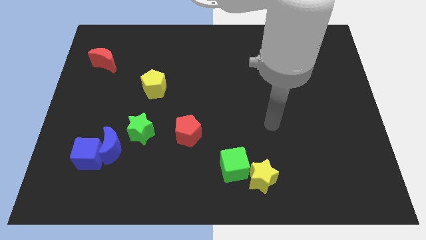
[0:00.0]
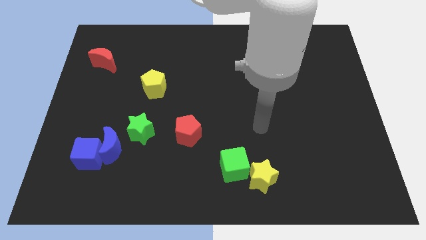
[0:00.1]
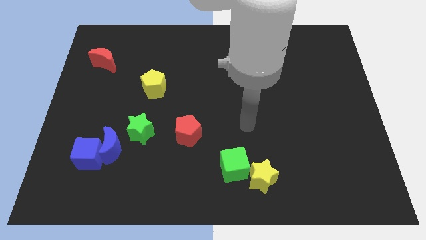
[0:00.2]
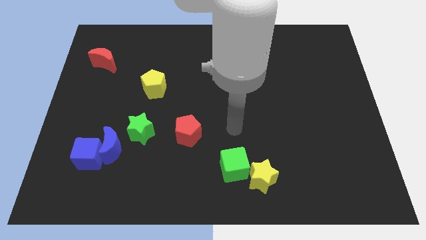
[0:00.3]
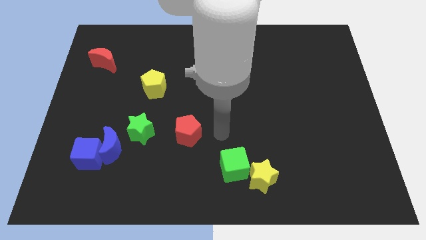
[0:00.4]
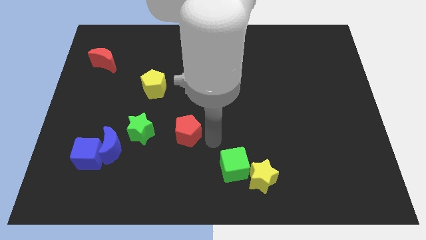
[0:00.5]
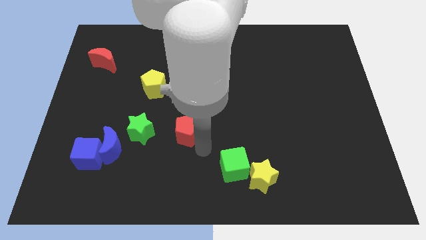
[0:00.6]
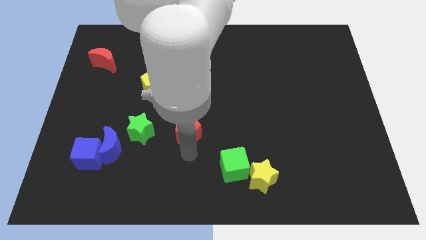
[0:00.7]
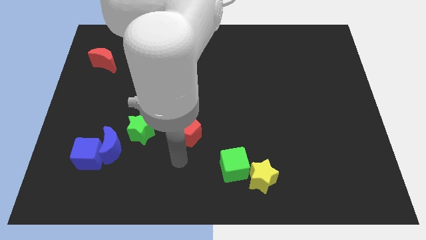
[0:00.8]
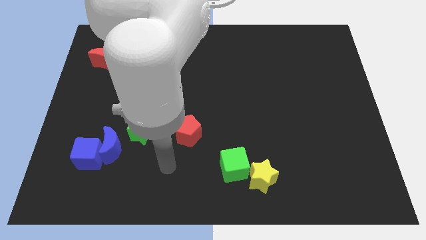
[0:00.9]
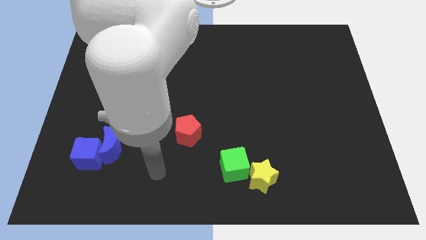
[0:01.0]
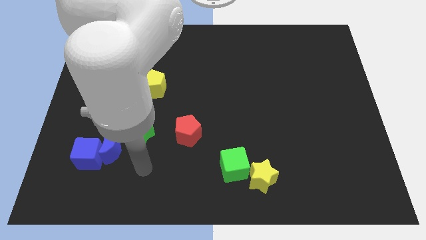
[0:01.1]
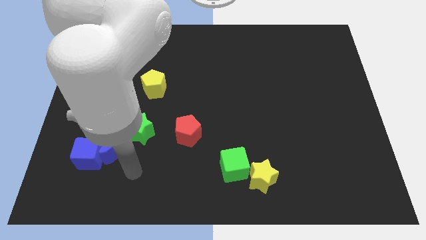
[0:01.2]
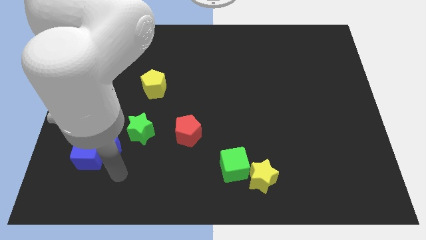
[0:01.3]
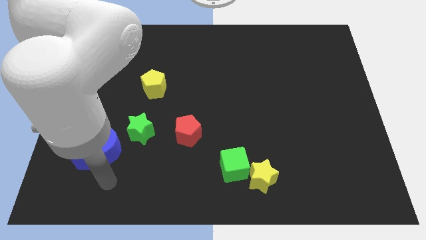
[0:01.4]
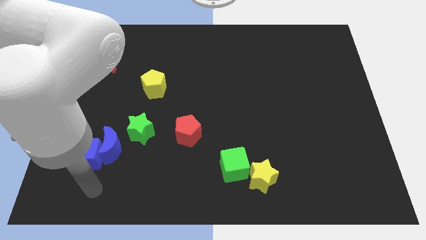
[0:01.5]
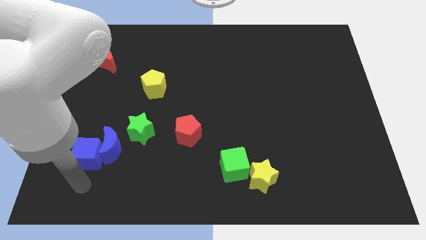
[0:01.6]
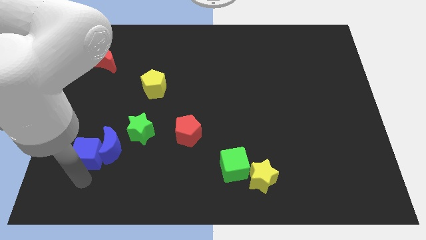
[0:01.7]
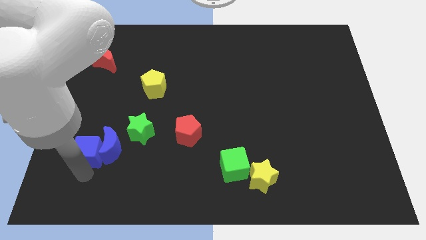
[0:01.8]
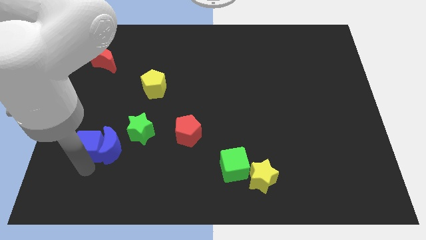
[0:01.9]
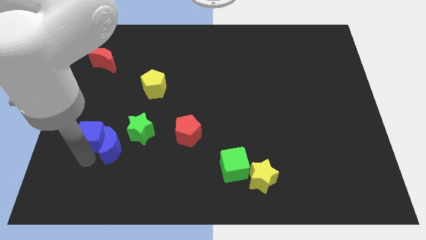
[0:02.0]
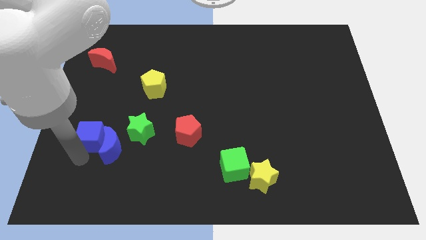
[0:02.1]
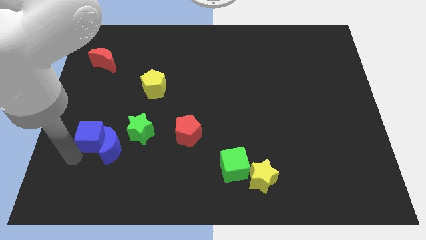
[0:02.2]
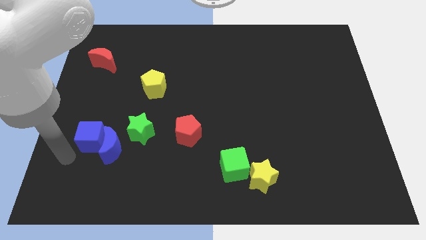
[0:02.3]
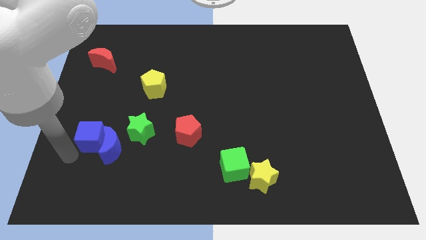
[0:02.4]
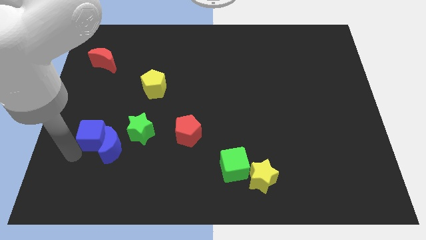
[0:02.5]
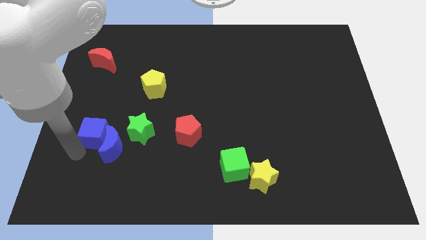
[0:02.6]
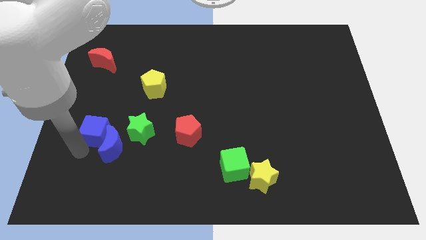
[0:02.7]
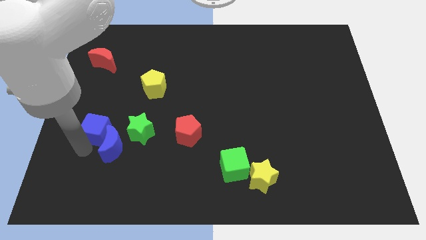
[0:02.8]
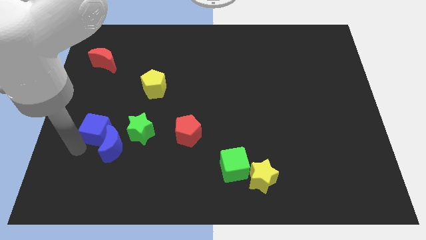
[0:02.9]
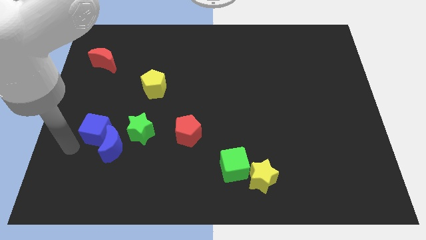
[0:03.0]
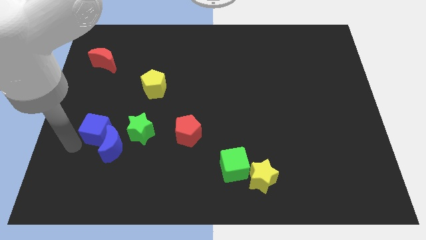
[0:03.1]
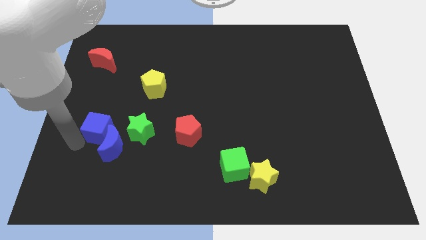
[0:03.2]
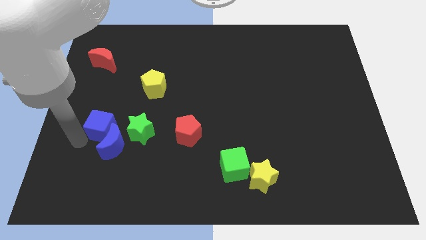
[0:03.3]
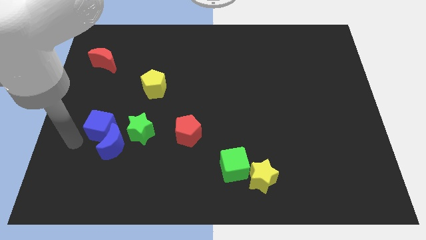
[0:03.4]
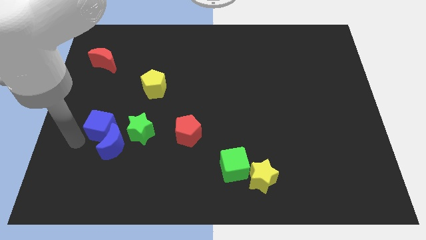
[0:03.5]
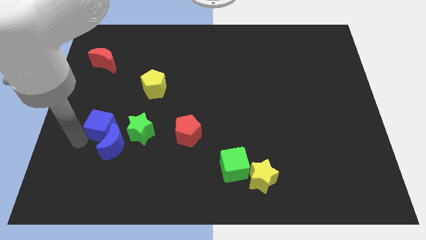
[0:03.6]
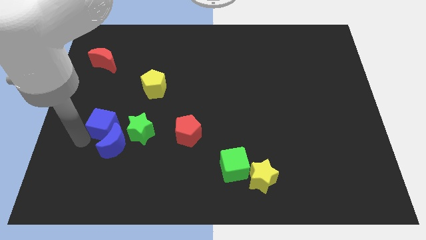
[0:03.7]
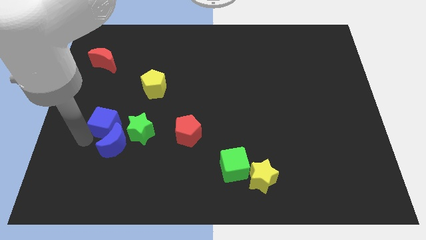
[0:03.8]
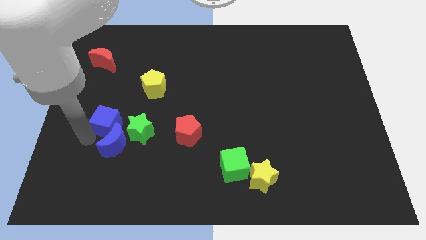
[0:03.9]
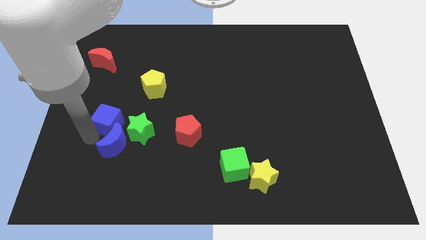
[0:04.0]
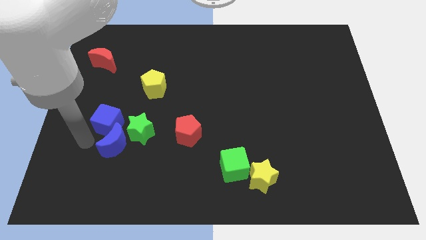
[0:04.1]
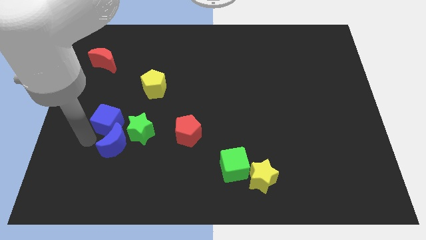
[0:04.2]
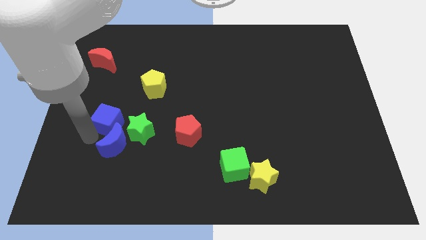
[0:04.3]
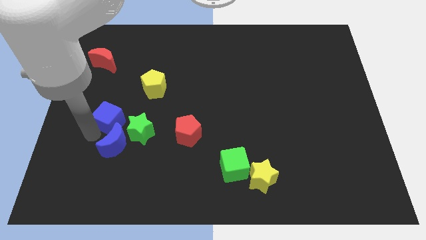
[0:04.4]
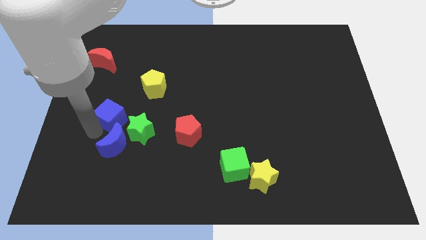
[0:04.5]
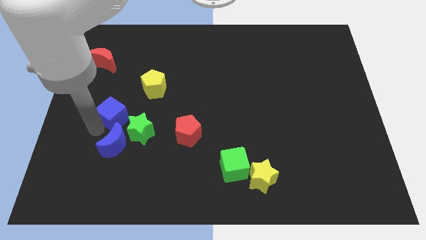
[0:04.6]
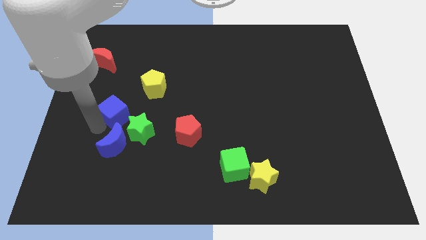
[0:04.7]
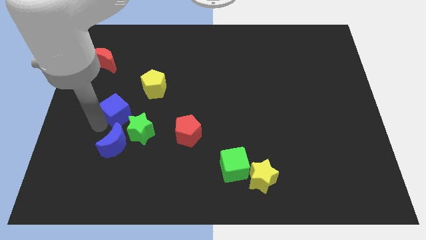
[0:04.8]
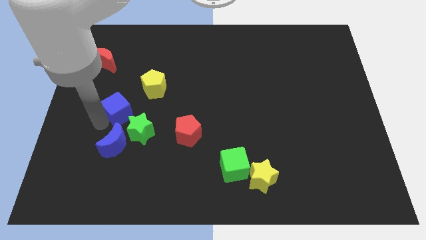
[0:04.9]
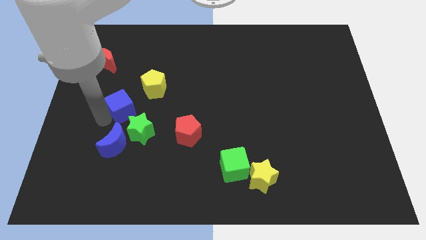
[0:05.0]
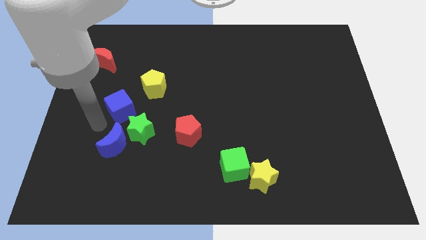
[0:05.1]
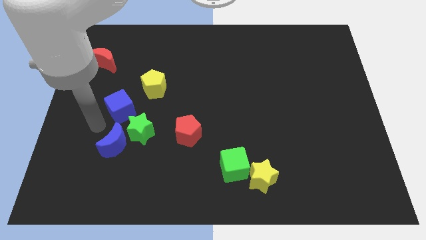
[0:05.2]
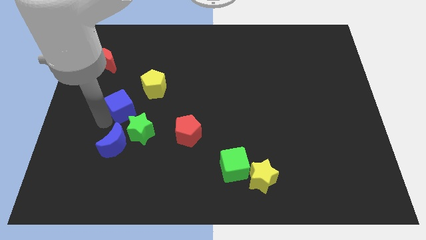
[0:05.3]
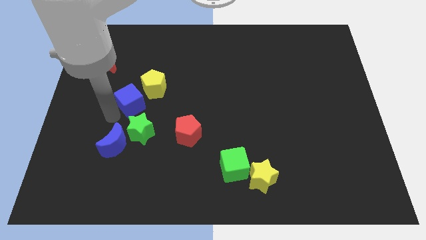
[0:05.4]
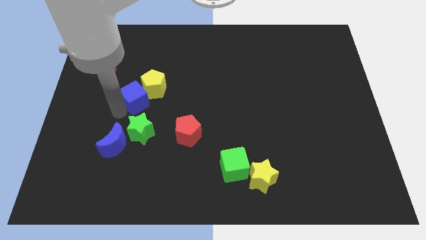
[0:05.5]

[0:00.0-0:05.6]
move the blue cube towards the yellow pentagon

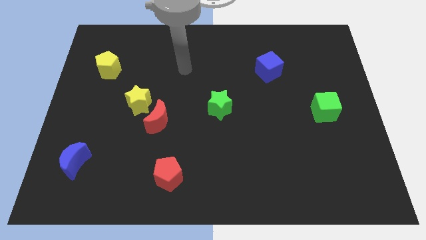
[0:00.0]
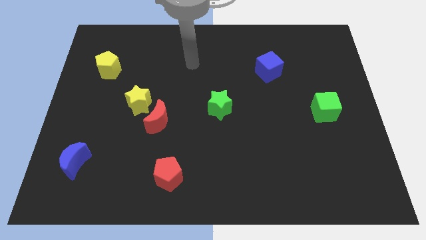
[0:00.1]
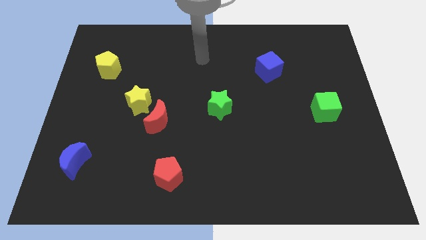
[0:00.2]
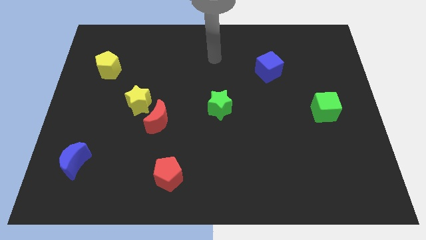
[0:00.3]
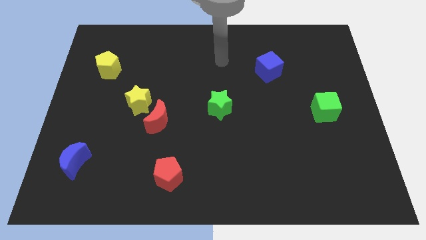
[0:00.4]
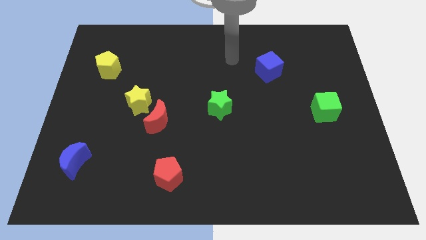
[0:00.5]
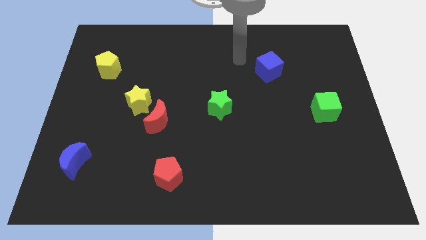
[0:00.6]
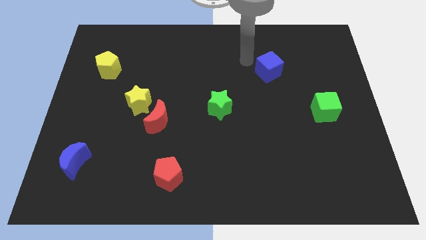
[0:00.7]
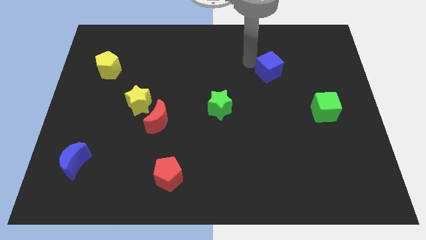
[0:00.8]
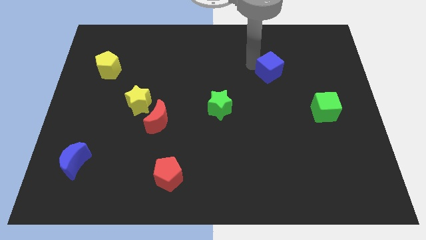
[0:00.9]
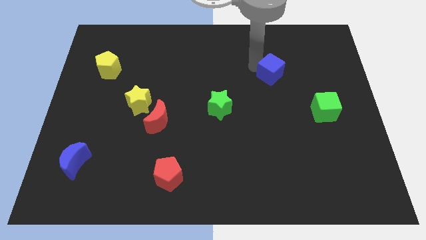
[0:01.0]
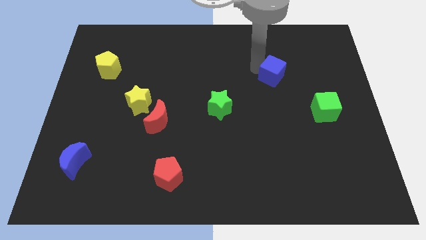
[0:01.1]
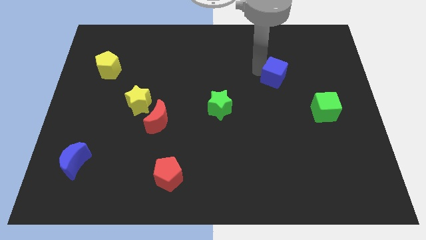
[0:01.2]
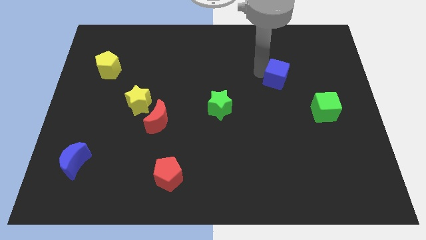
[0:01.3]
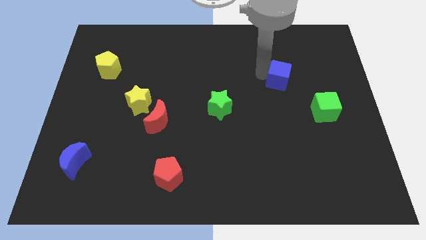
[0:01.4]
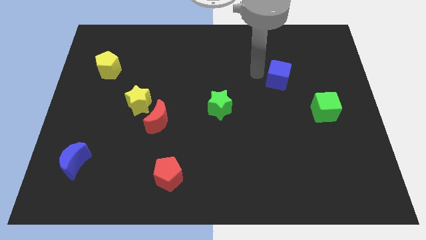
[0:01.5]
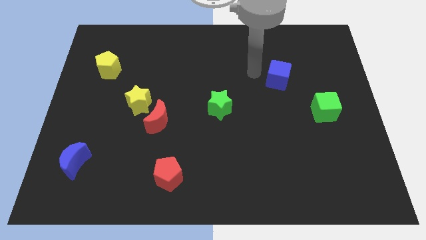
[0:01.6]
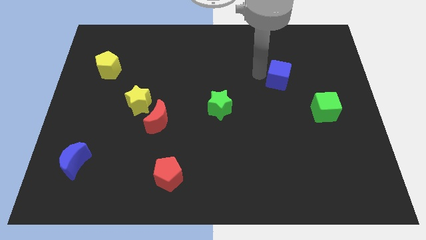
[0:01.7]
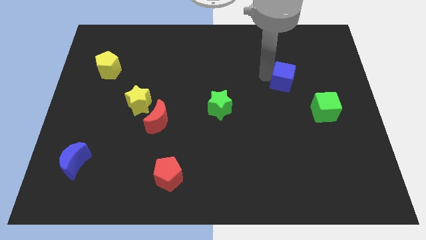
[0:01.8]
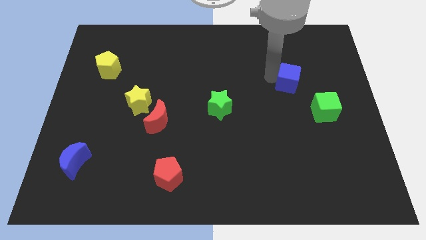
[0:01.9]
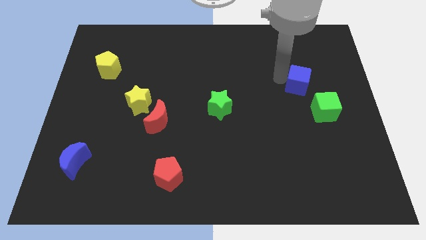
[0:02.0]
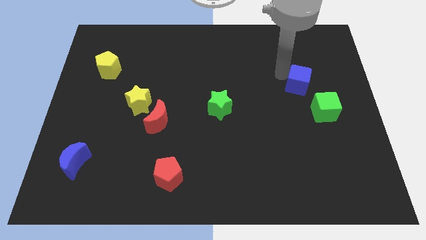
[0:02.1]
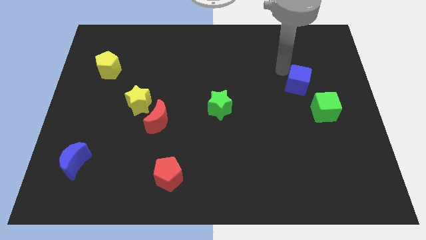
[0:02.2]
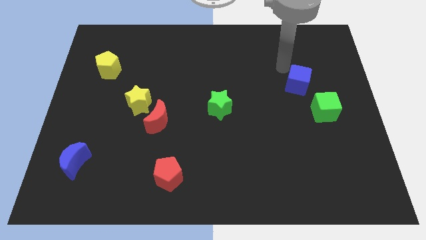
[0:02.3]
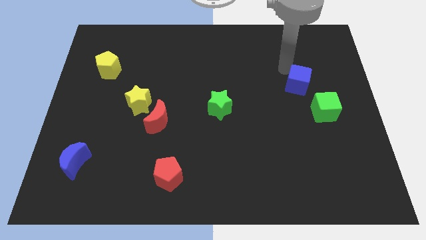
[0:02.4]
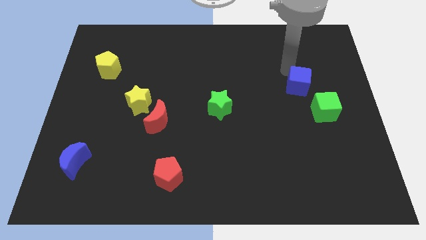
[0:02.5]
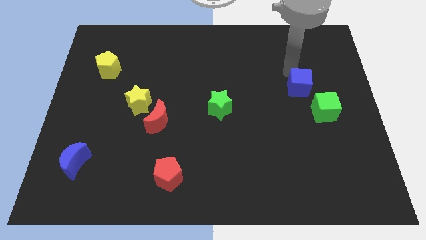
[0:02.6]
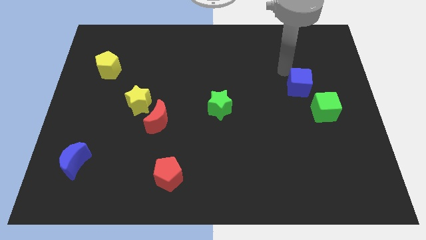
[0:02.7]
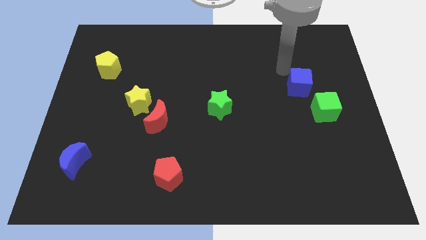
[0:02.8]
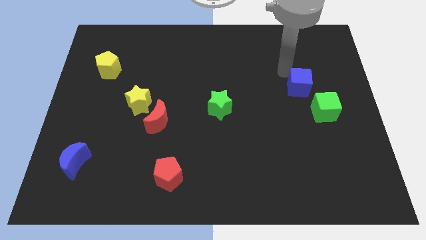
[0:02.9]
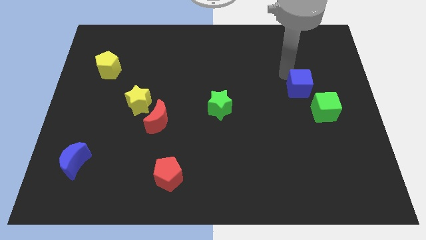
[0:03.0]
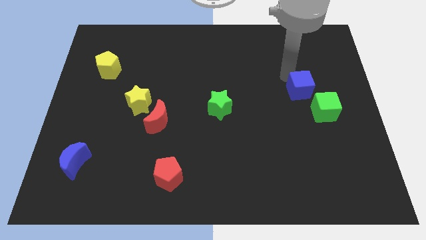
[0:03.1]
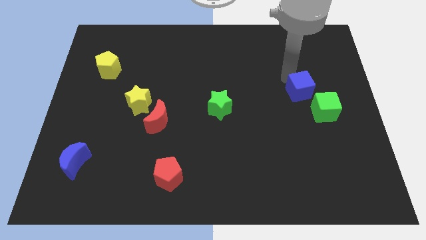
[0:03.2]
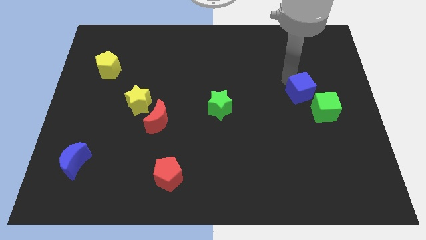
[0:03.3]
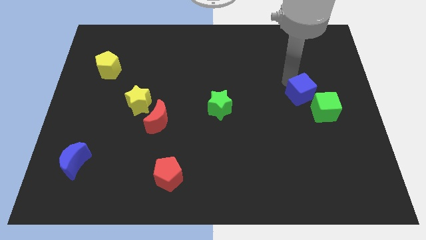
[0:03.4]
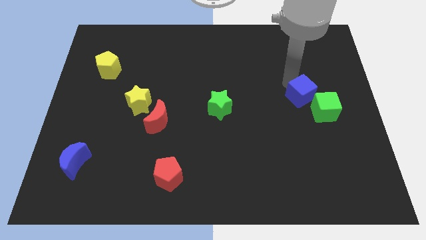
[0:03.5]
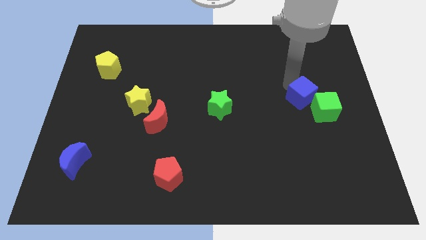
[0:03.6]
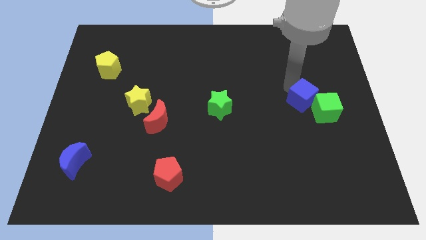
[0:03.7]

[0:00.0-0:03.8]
put the blue cube next to the green cube
